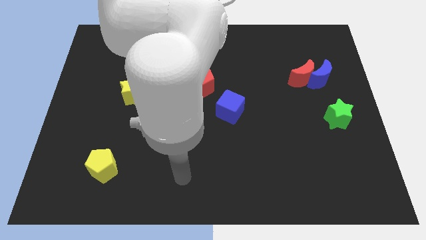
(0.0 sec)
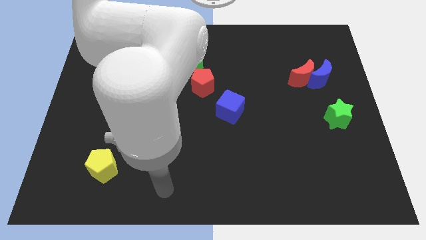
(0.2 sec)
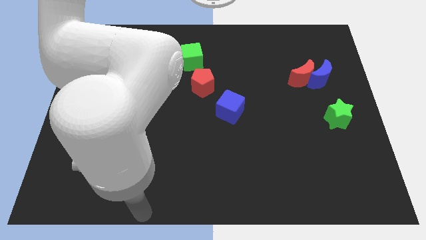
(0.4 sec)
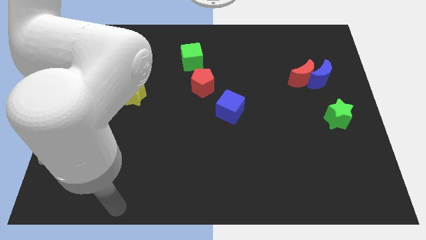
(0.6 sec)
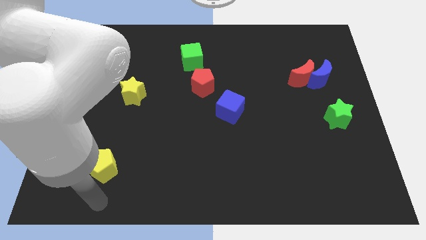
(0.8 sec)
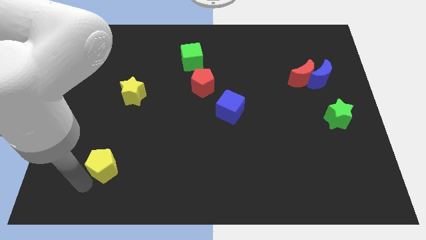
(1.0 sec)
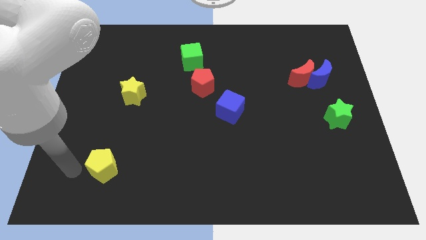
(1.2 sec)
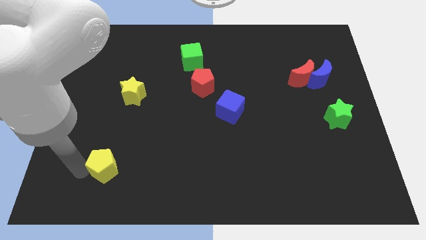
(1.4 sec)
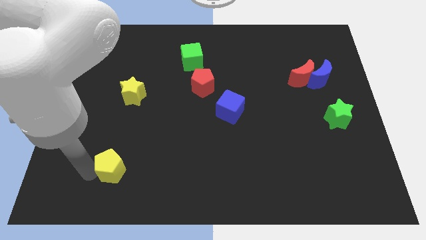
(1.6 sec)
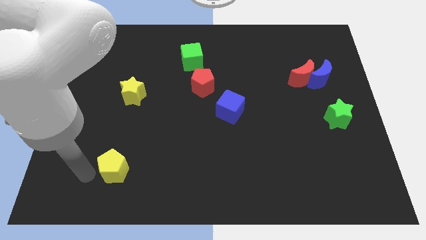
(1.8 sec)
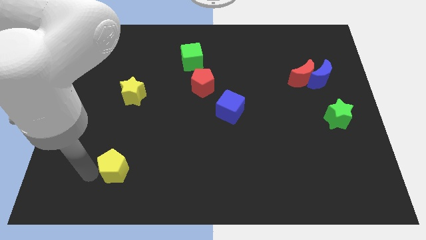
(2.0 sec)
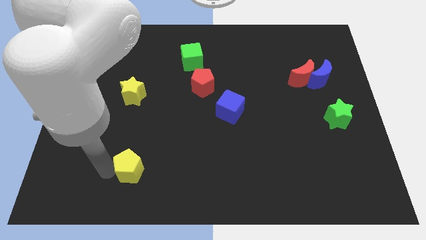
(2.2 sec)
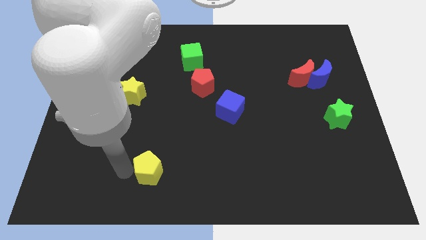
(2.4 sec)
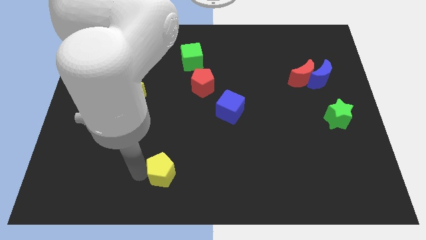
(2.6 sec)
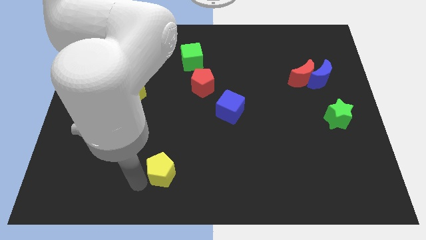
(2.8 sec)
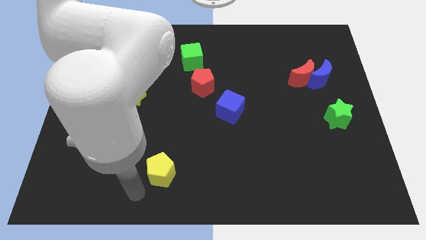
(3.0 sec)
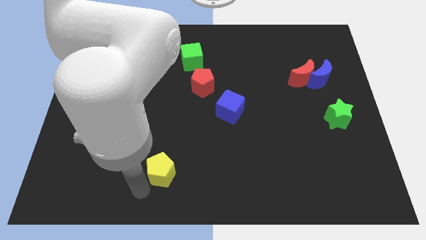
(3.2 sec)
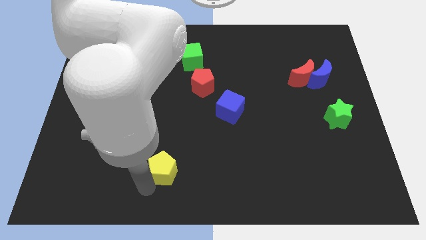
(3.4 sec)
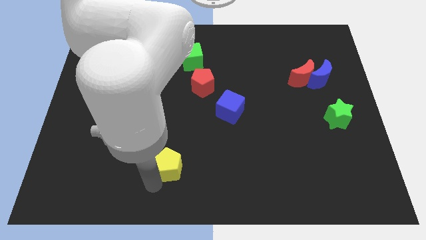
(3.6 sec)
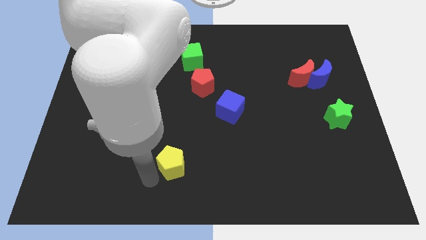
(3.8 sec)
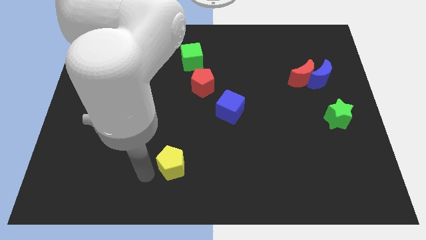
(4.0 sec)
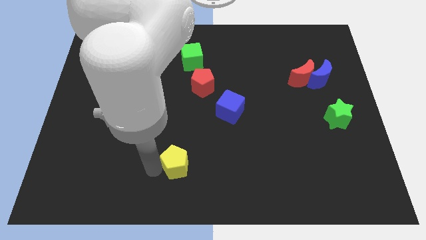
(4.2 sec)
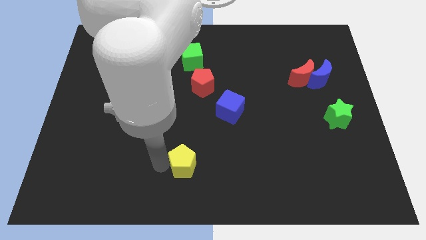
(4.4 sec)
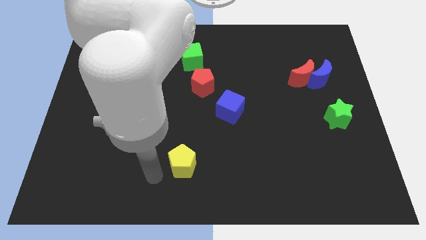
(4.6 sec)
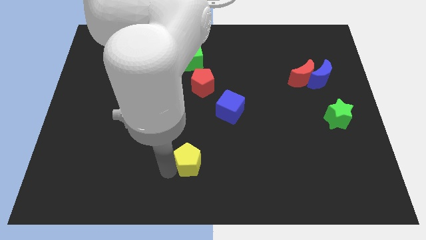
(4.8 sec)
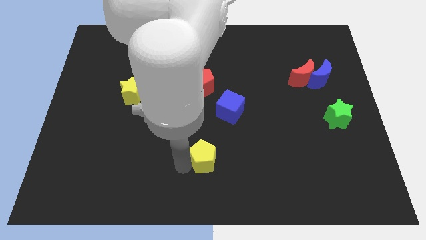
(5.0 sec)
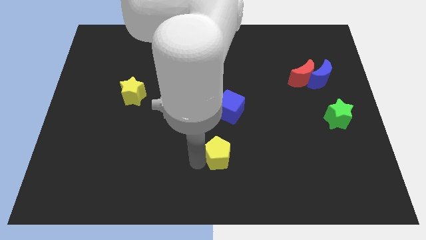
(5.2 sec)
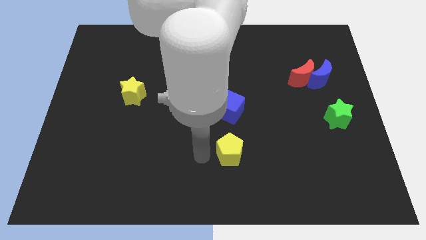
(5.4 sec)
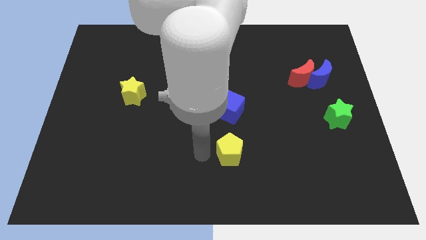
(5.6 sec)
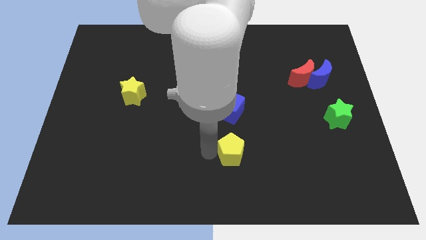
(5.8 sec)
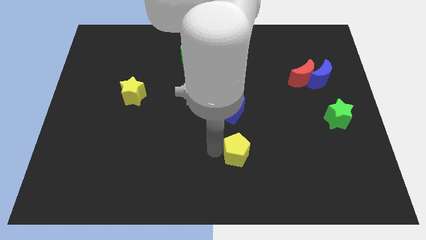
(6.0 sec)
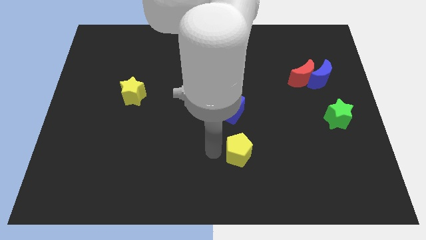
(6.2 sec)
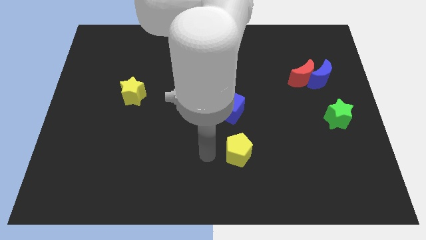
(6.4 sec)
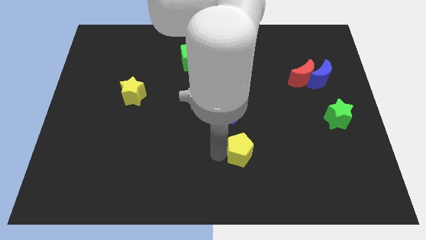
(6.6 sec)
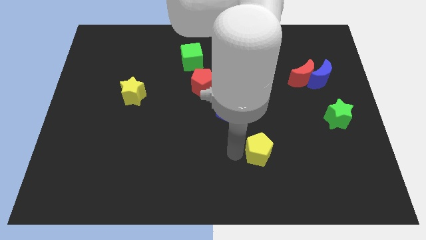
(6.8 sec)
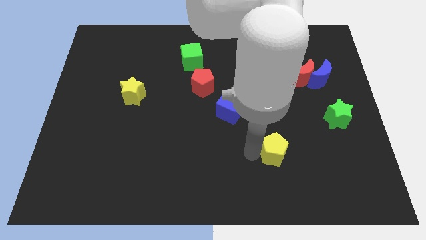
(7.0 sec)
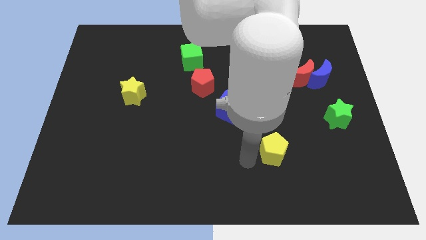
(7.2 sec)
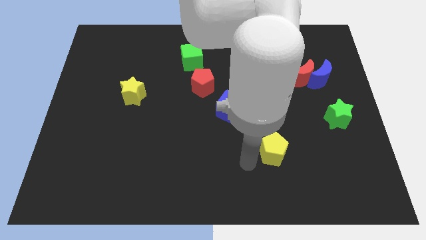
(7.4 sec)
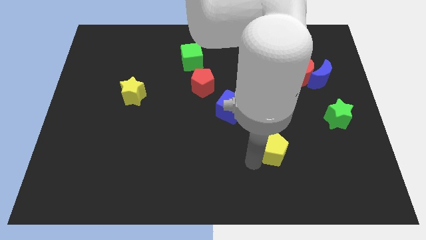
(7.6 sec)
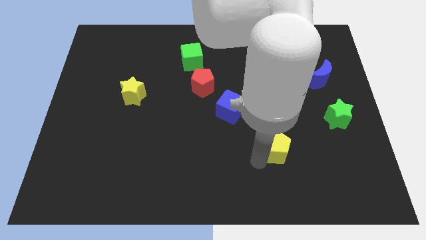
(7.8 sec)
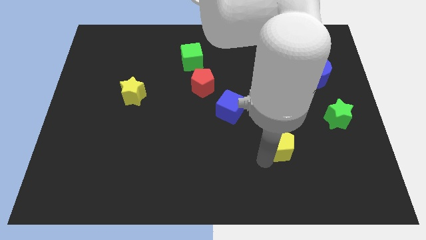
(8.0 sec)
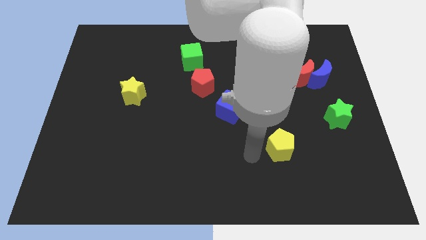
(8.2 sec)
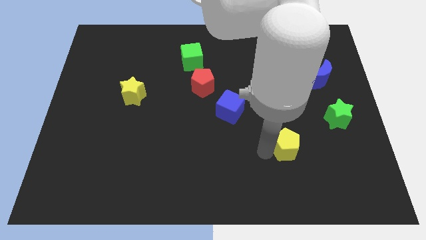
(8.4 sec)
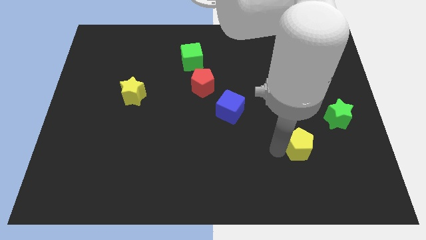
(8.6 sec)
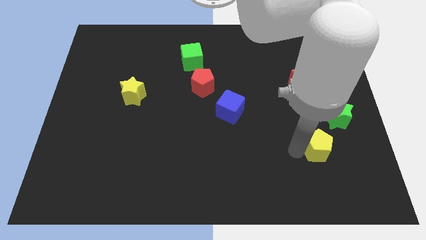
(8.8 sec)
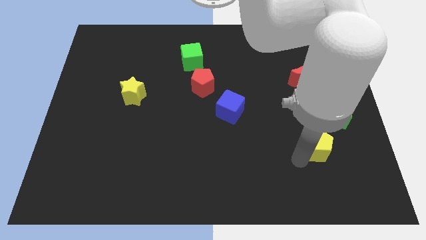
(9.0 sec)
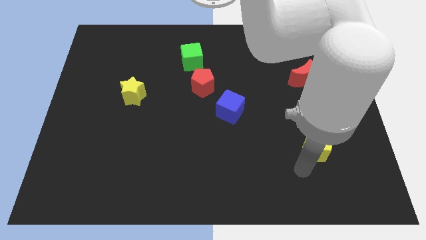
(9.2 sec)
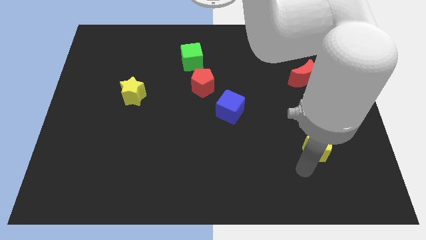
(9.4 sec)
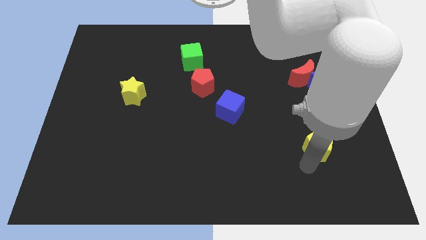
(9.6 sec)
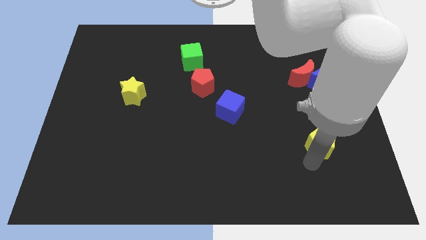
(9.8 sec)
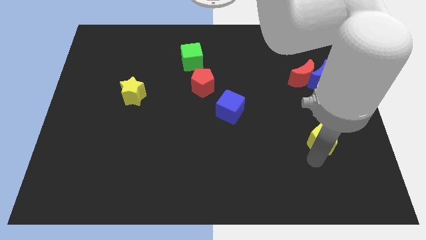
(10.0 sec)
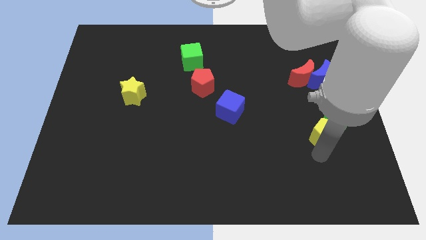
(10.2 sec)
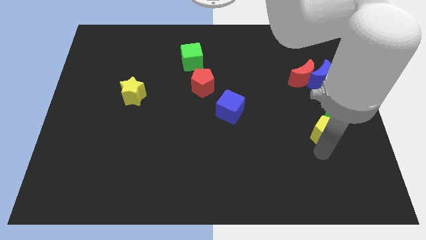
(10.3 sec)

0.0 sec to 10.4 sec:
move the yellow pentagon next to the green star

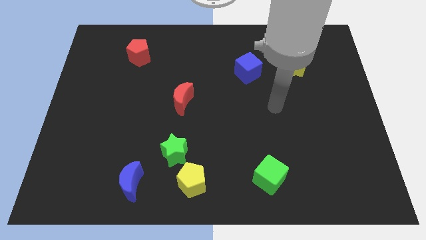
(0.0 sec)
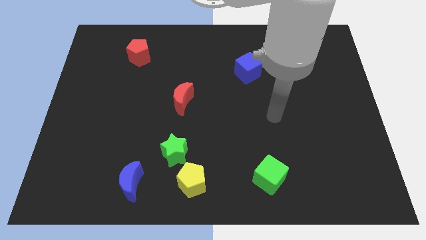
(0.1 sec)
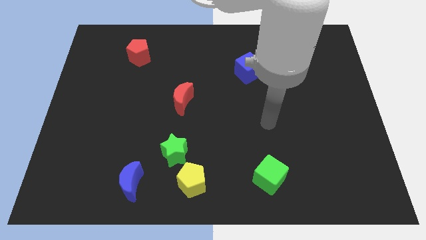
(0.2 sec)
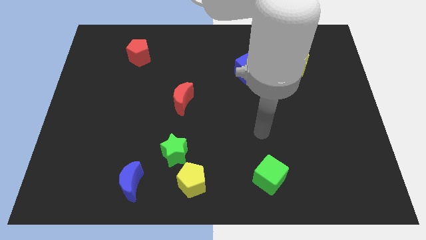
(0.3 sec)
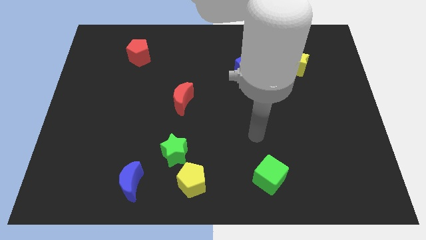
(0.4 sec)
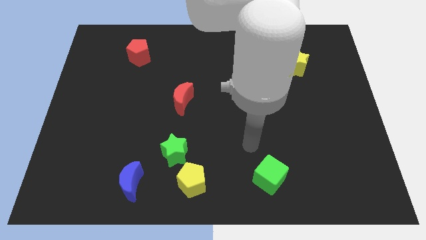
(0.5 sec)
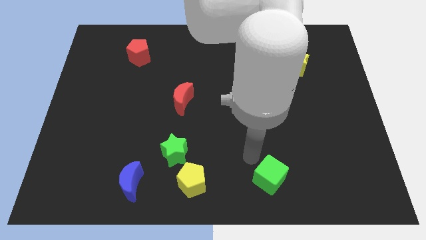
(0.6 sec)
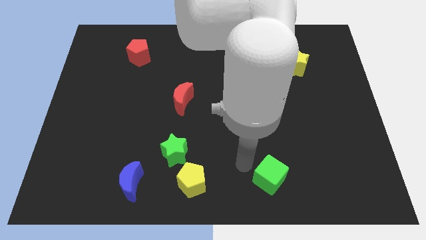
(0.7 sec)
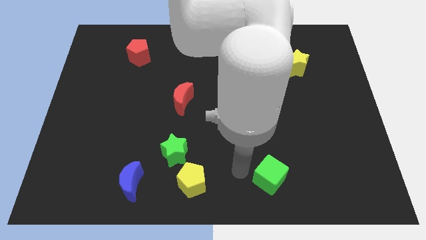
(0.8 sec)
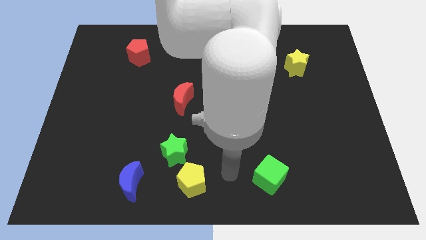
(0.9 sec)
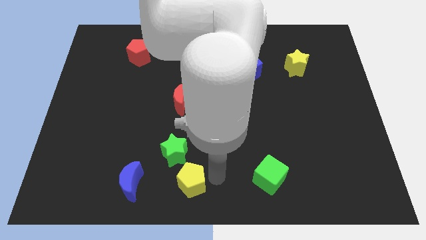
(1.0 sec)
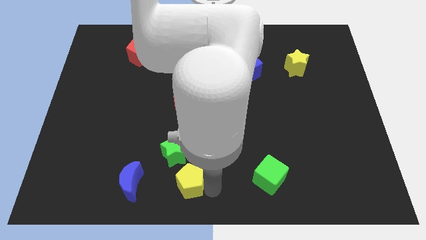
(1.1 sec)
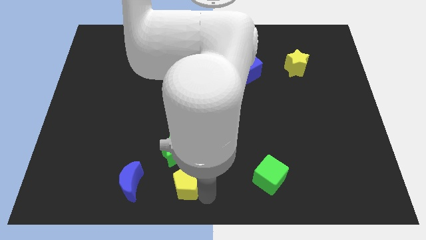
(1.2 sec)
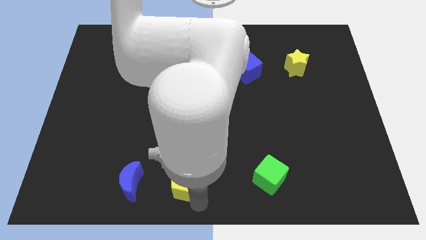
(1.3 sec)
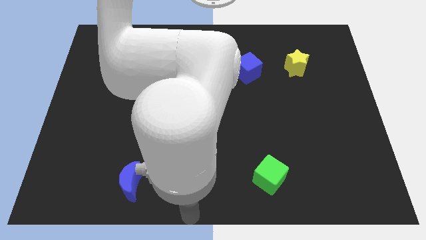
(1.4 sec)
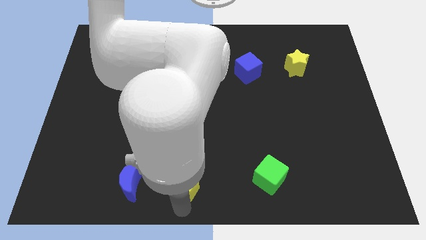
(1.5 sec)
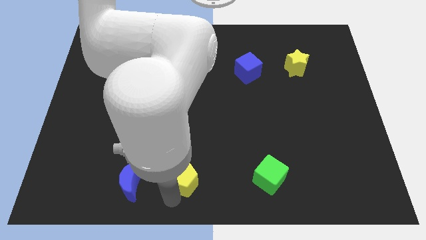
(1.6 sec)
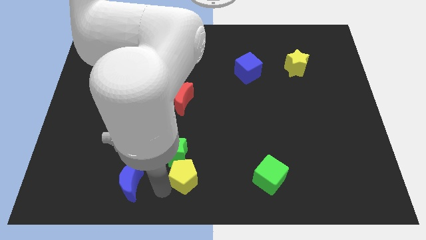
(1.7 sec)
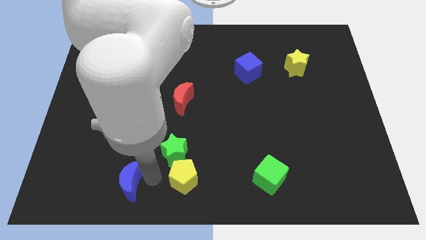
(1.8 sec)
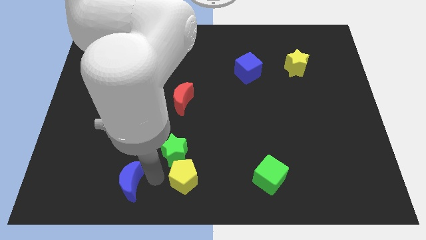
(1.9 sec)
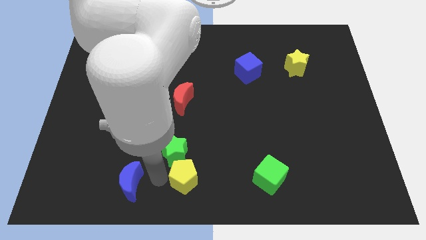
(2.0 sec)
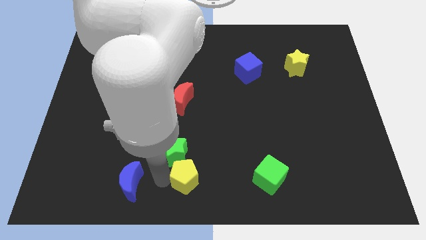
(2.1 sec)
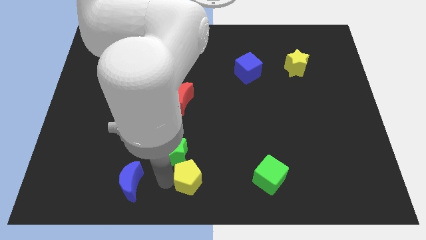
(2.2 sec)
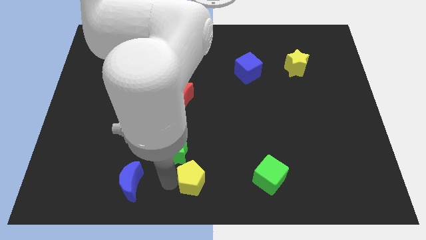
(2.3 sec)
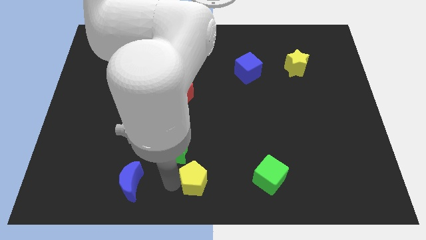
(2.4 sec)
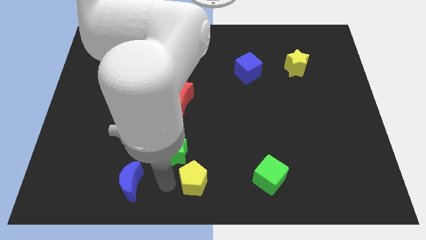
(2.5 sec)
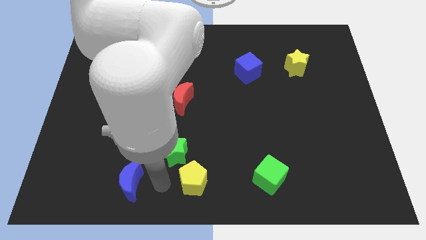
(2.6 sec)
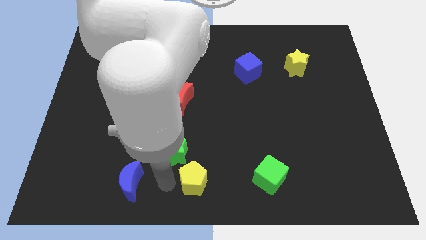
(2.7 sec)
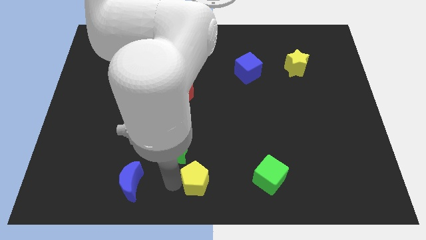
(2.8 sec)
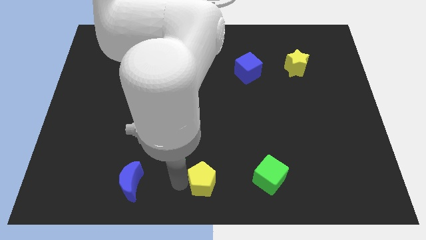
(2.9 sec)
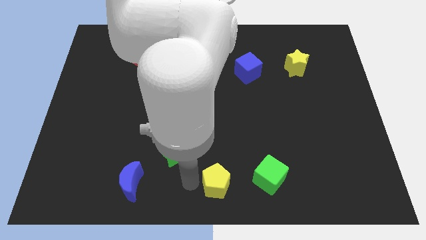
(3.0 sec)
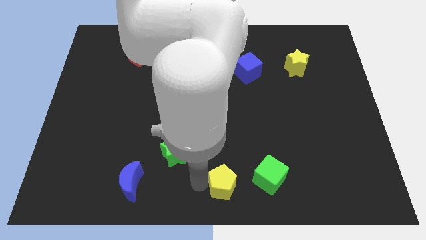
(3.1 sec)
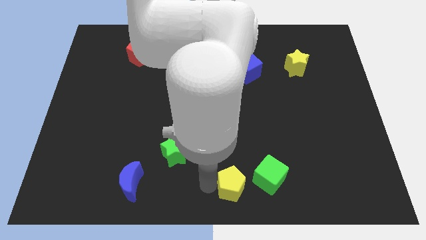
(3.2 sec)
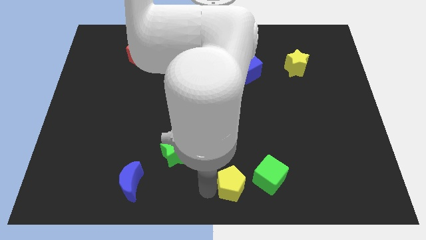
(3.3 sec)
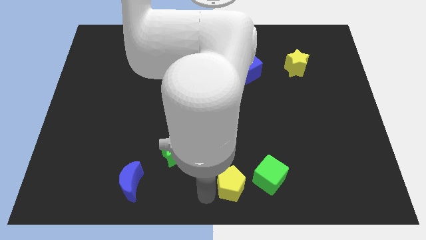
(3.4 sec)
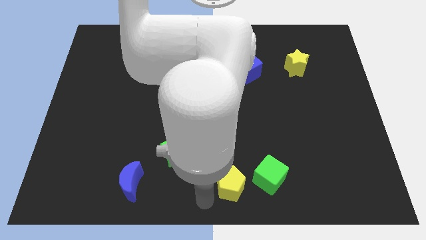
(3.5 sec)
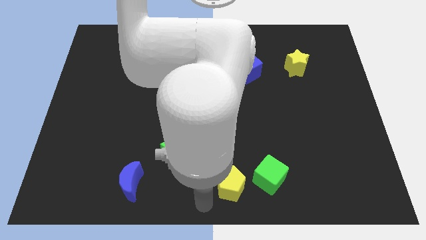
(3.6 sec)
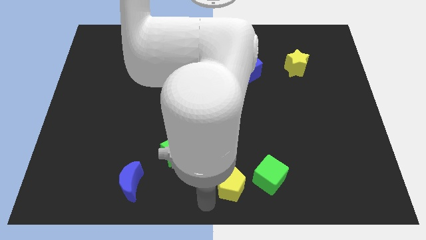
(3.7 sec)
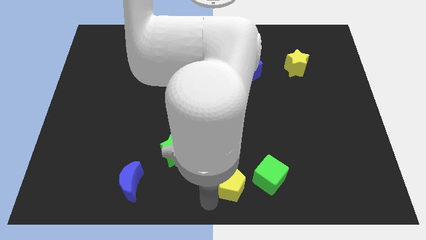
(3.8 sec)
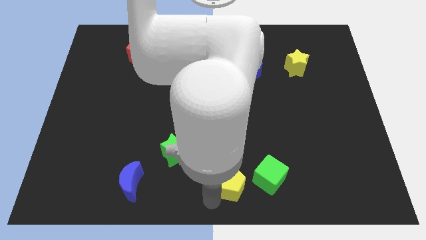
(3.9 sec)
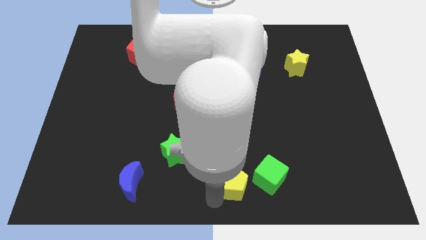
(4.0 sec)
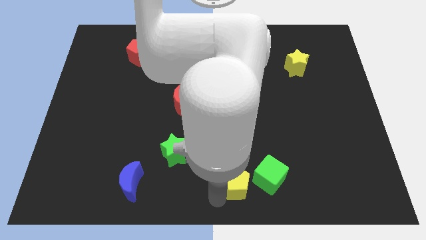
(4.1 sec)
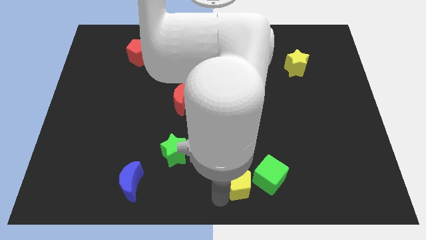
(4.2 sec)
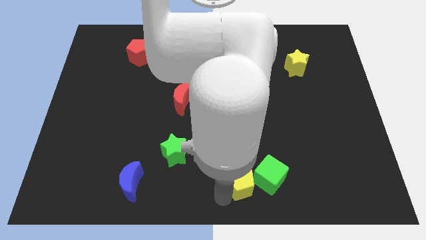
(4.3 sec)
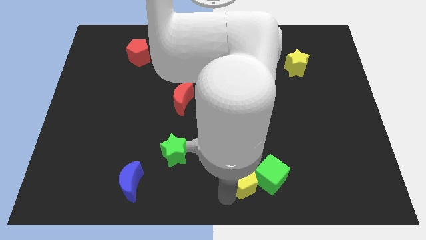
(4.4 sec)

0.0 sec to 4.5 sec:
slide the yellow pentagon towards the green cube
